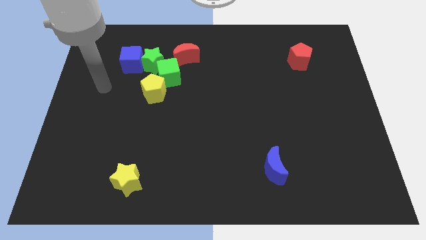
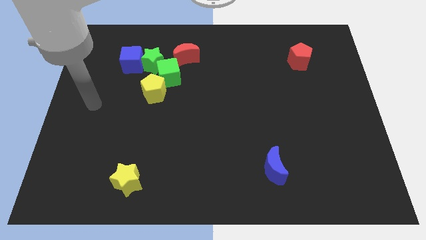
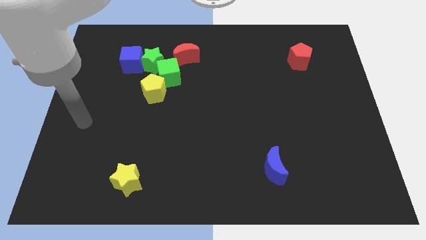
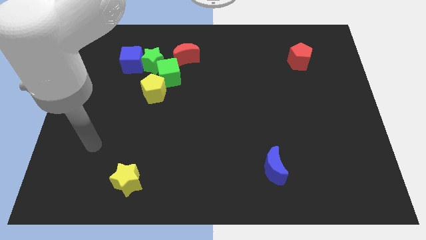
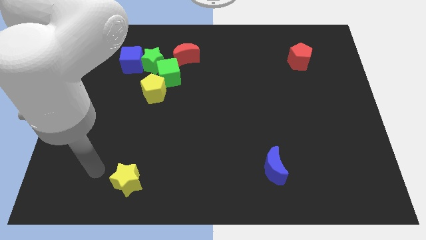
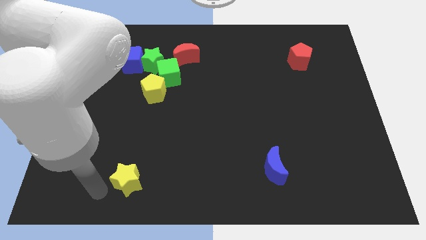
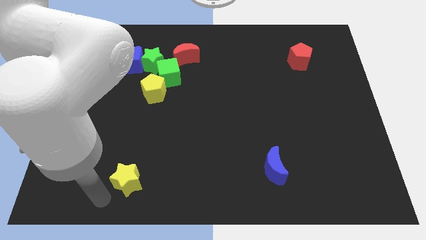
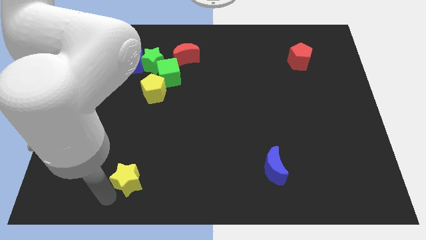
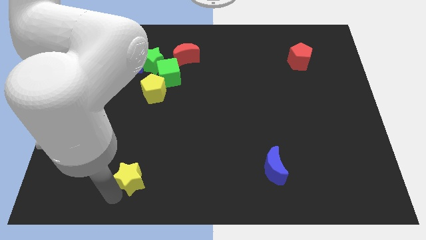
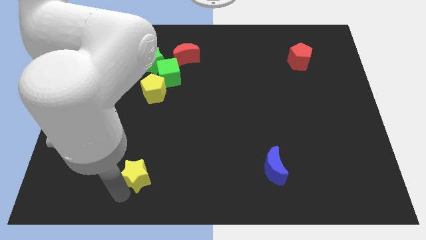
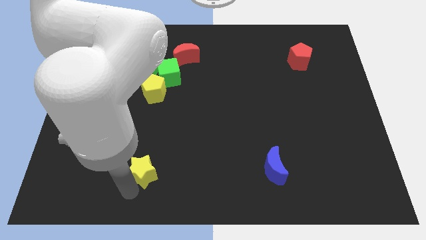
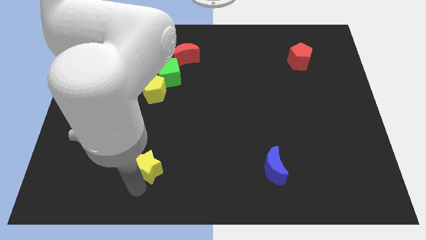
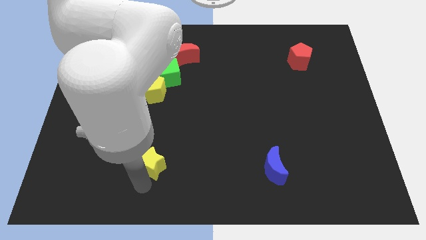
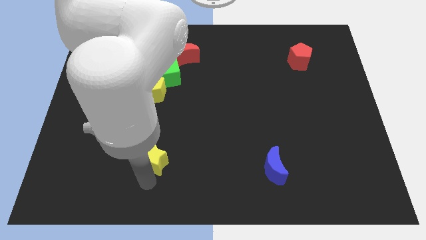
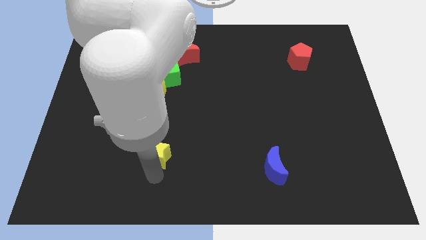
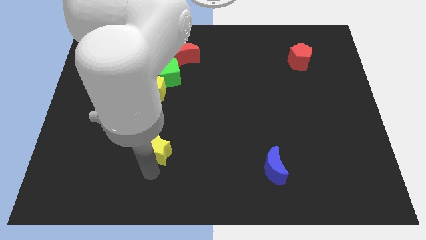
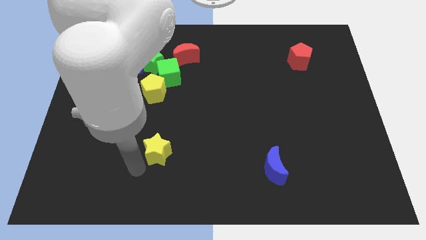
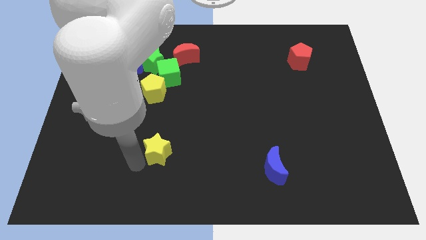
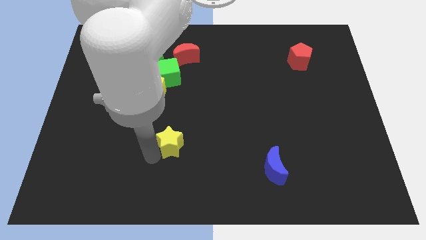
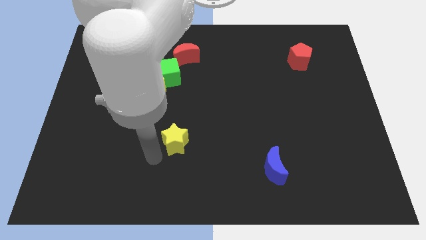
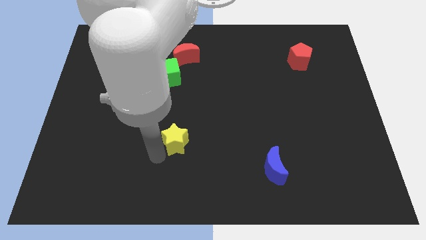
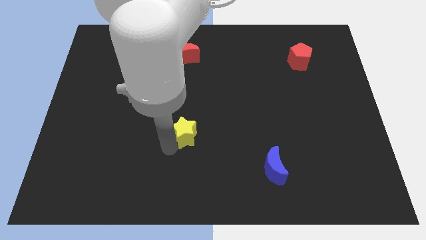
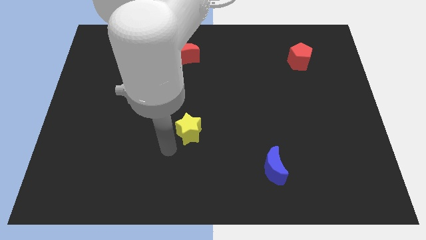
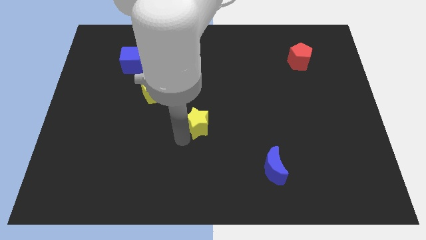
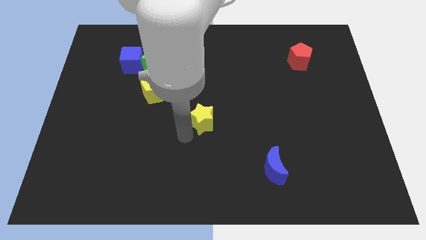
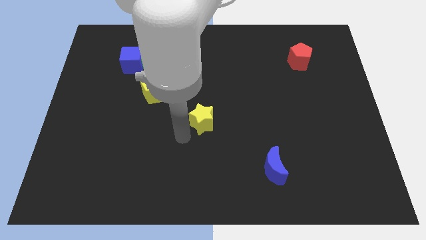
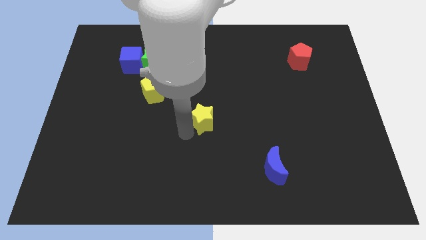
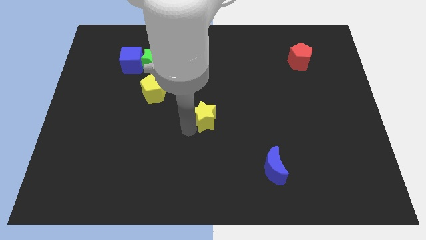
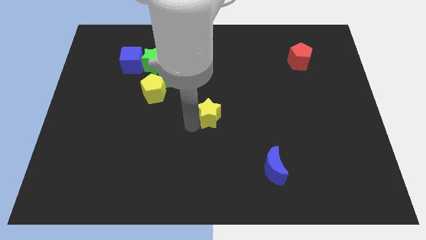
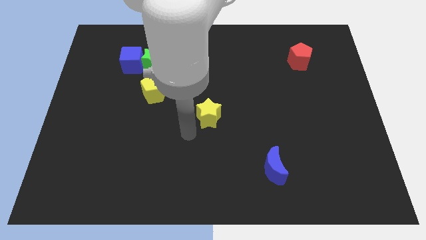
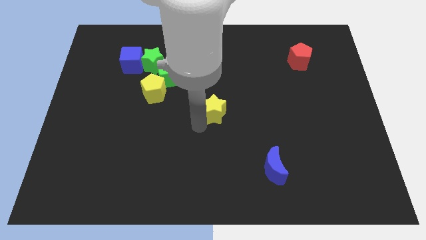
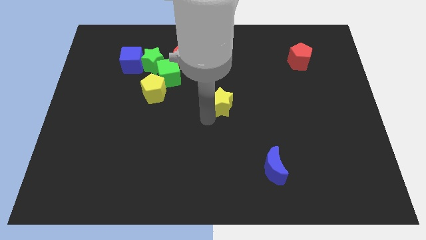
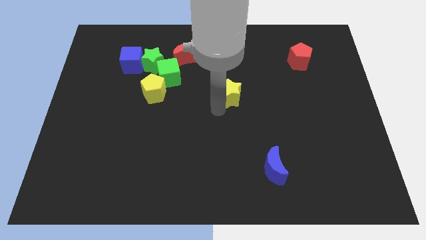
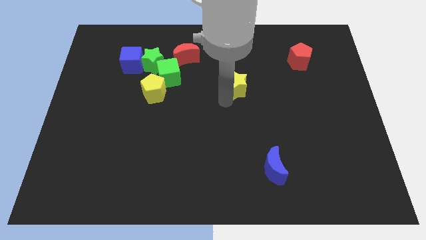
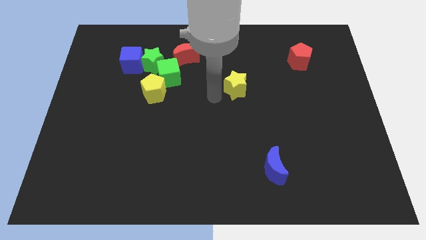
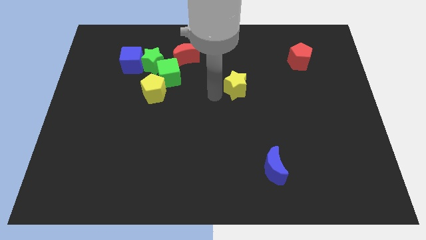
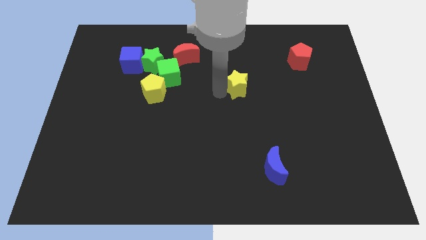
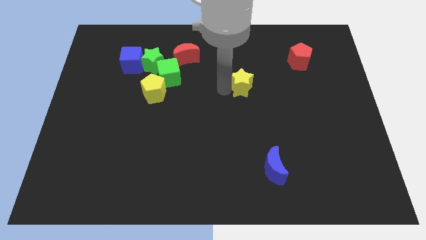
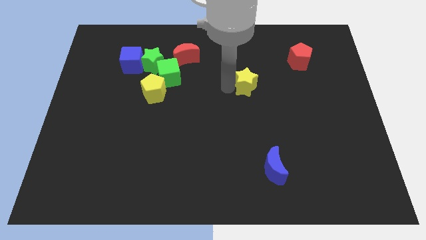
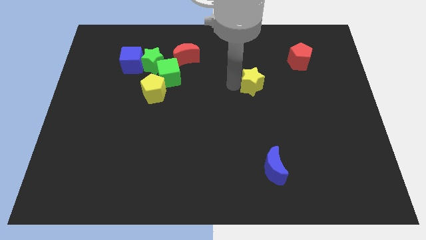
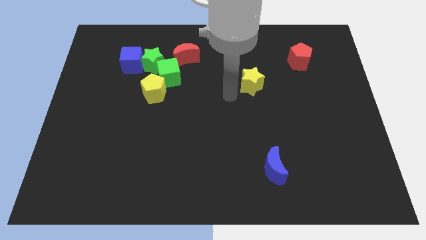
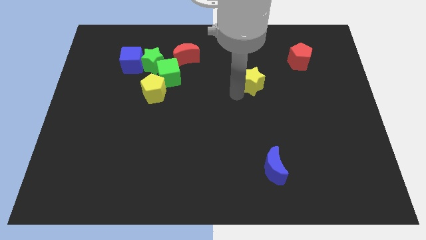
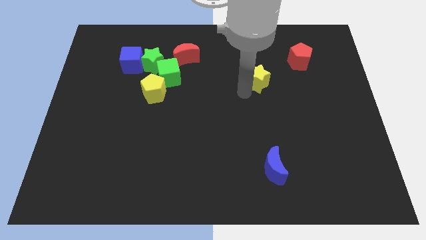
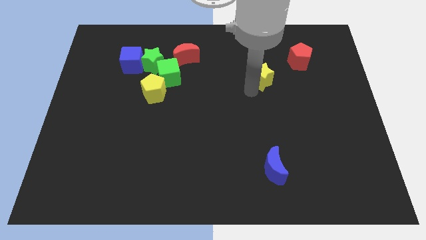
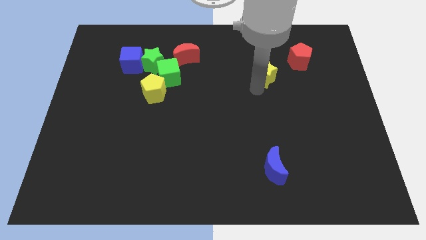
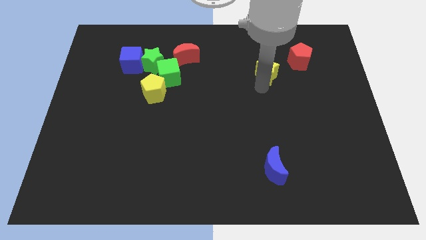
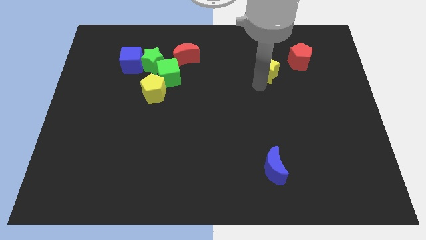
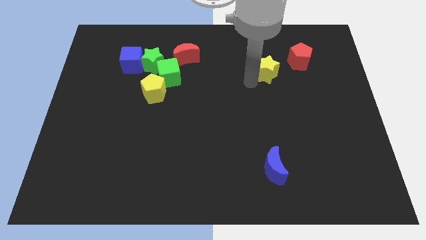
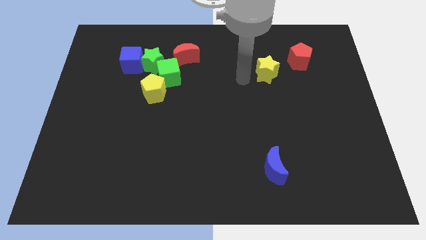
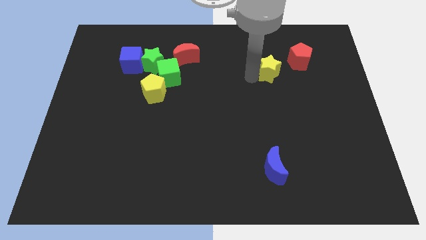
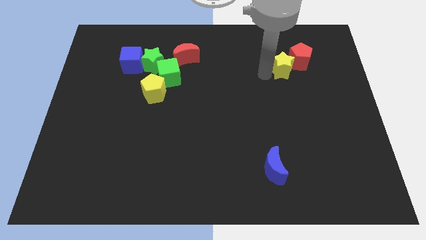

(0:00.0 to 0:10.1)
push the yellow star towards the red pentagon

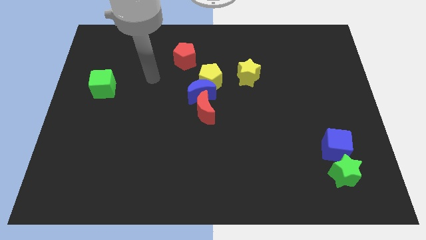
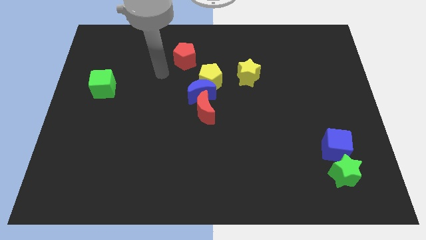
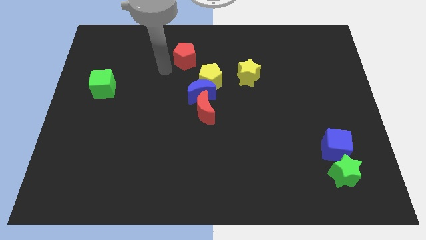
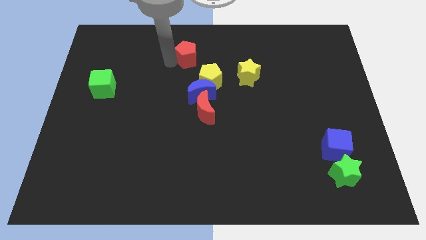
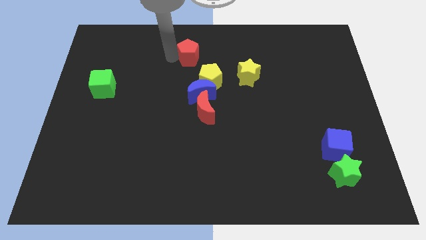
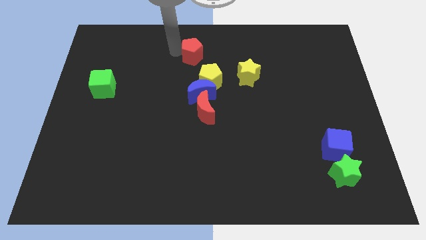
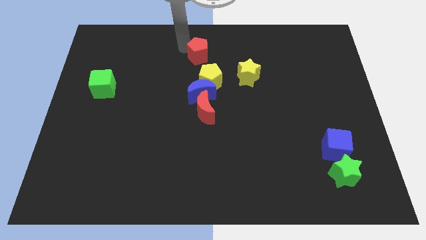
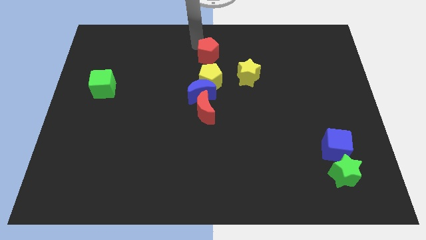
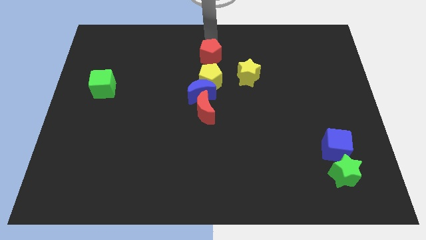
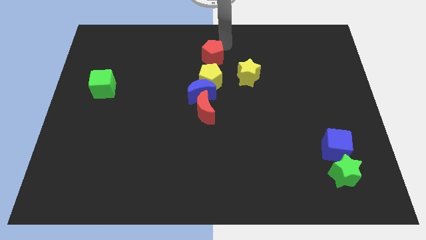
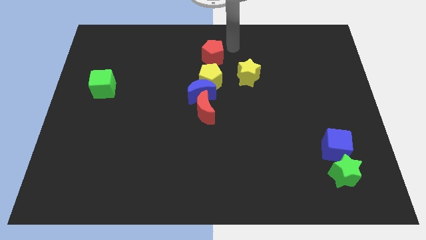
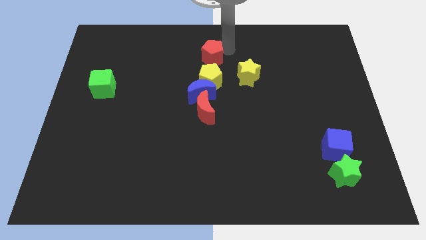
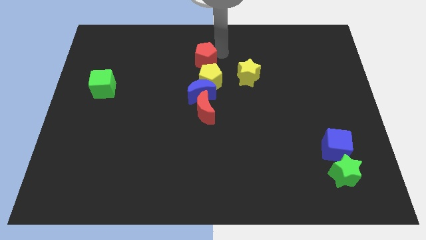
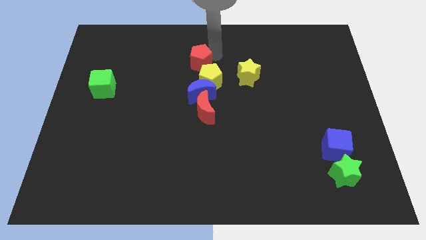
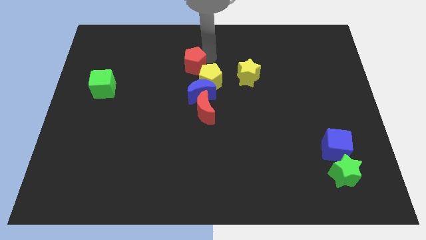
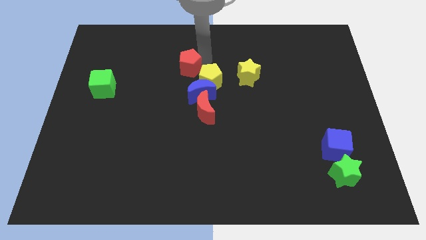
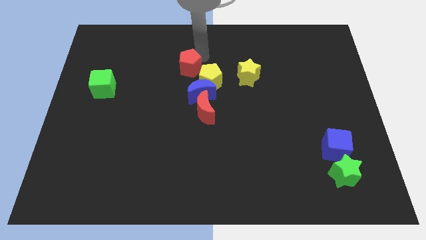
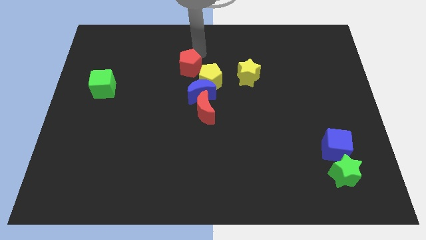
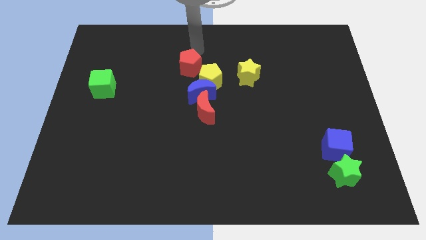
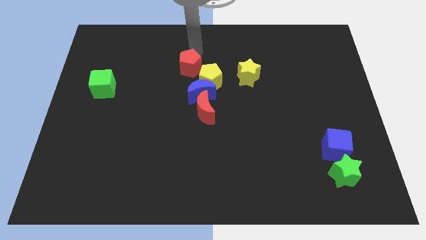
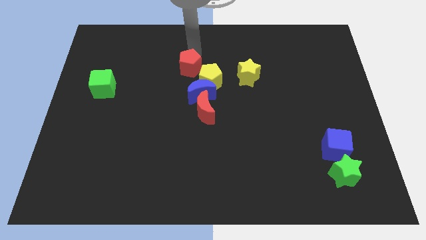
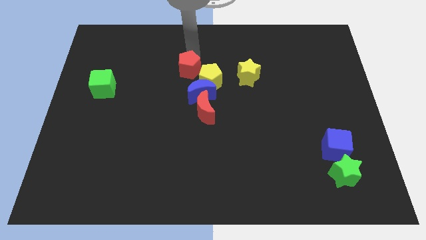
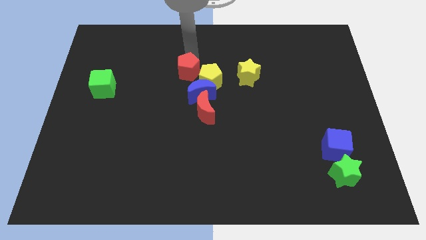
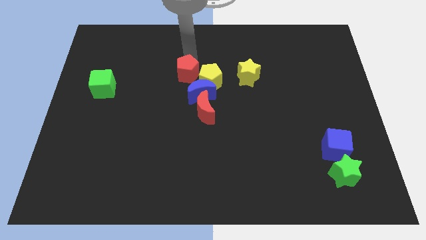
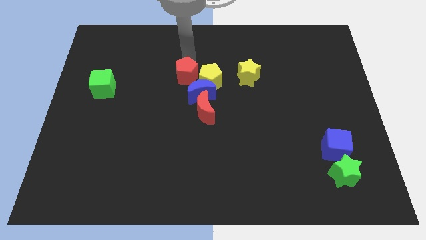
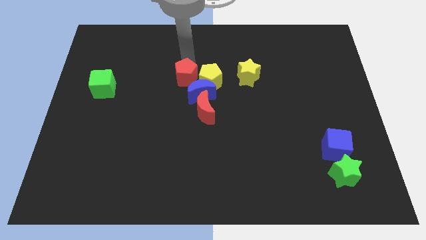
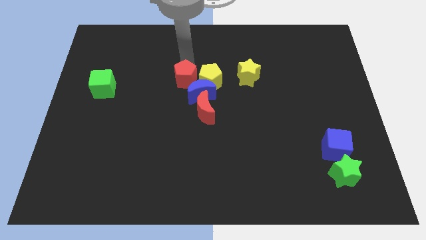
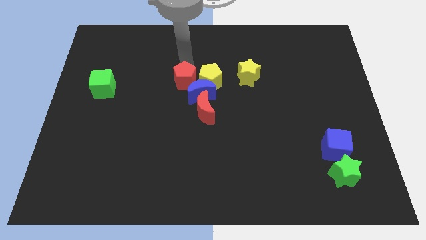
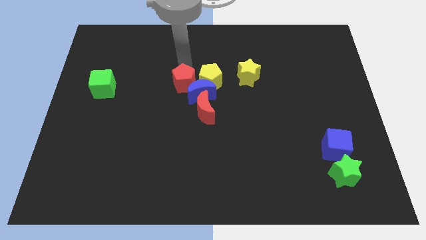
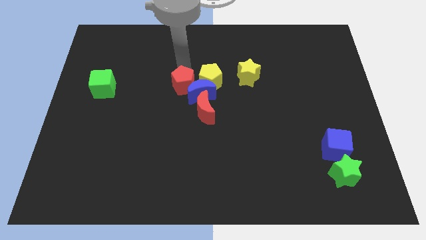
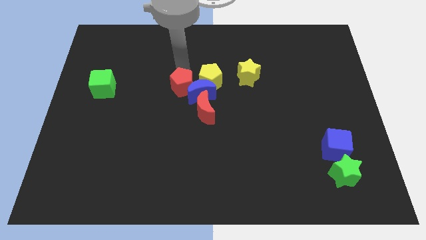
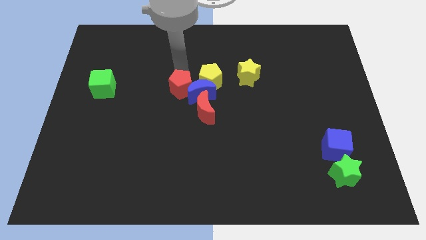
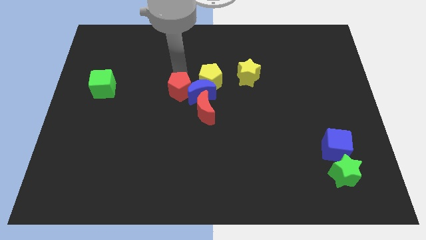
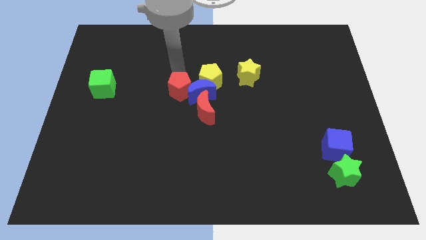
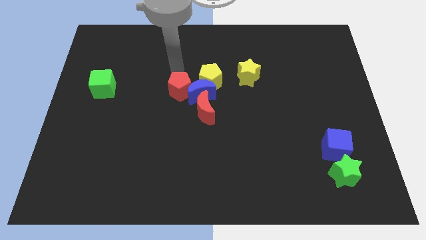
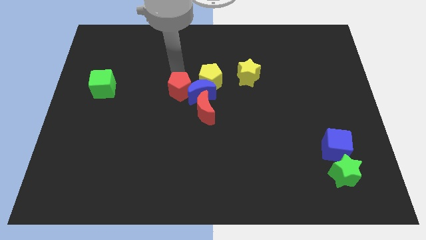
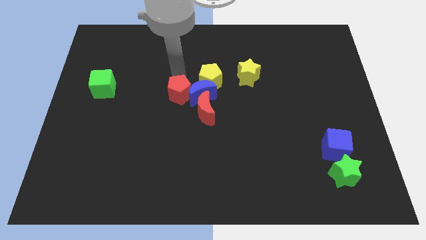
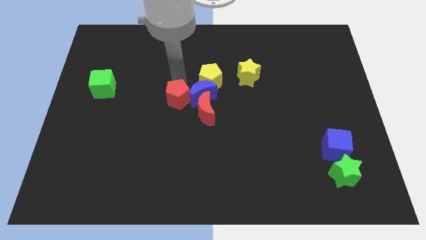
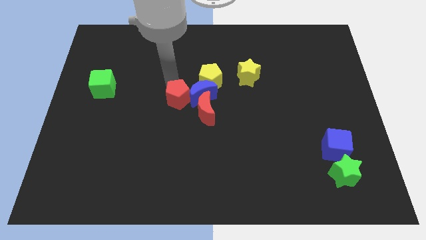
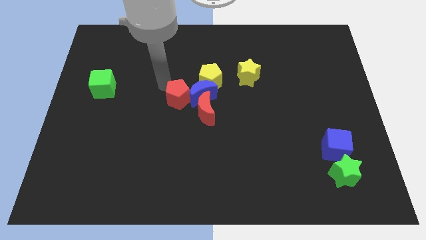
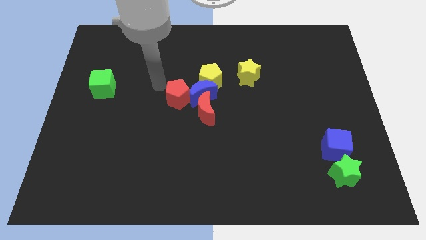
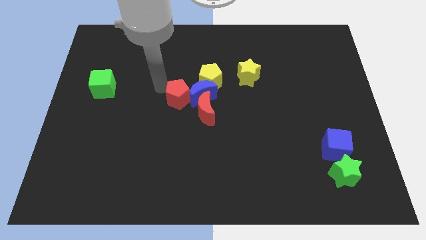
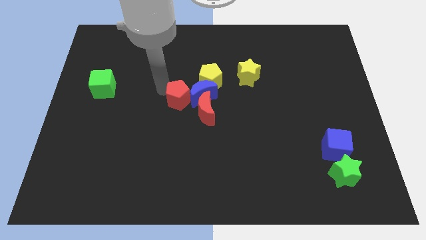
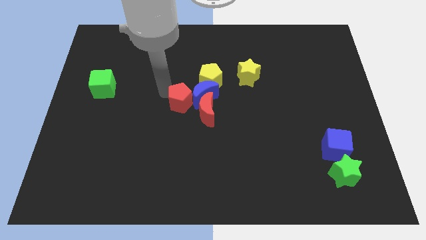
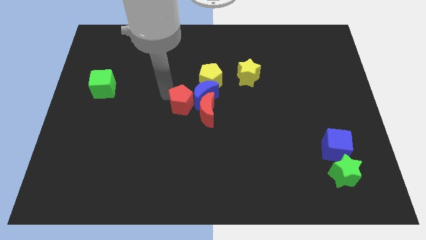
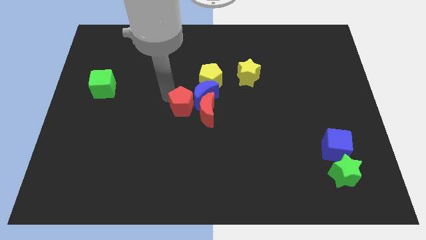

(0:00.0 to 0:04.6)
slide the red pentagon next to the red moon
